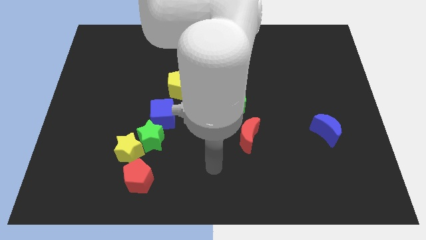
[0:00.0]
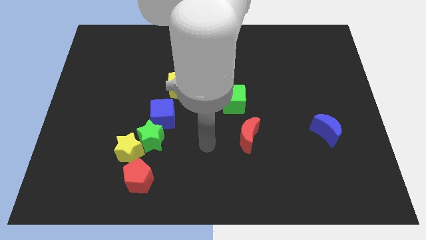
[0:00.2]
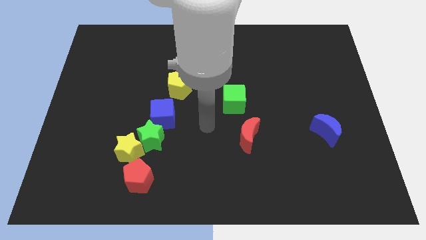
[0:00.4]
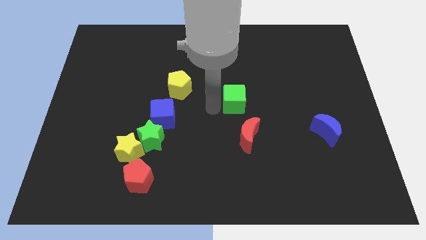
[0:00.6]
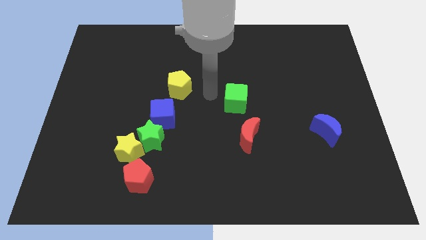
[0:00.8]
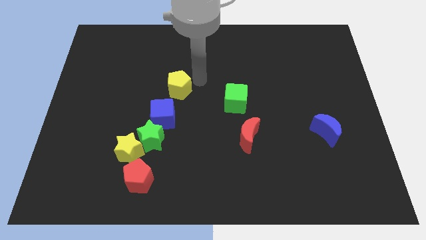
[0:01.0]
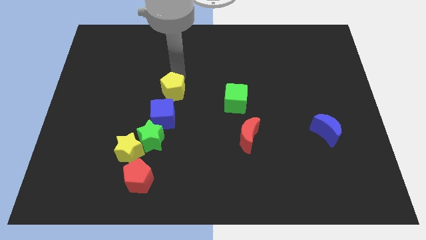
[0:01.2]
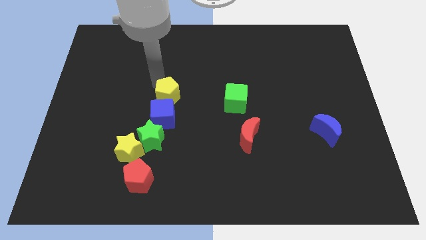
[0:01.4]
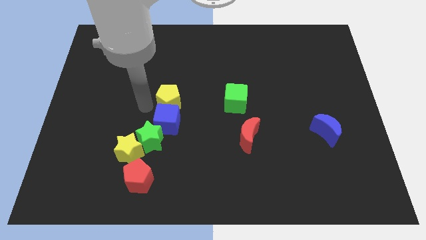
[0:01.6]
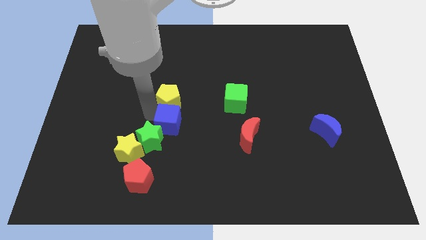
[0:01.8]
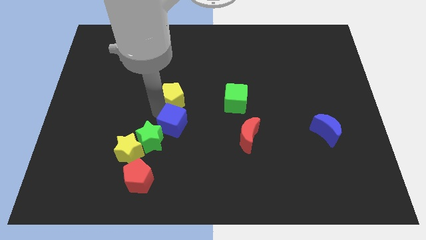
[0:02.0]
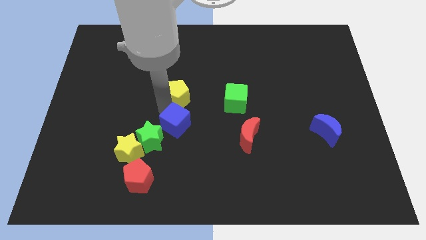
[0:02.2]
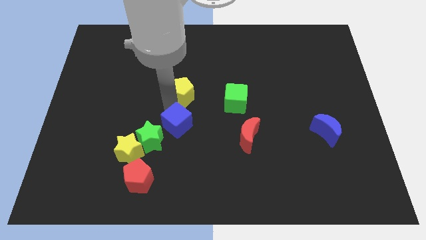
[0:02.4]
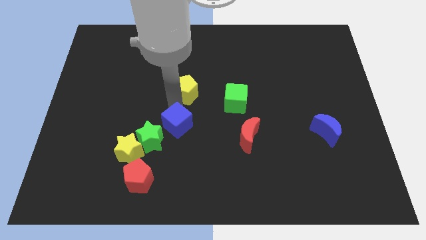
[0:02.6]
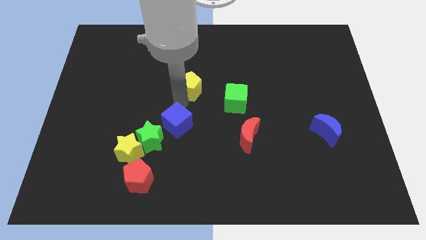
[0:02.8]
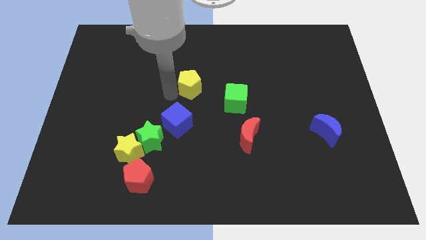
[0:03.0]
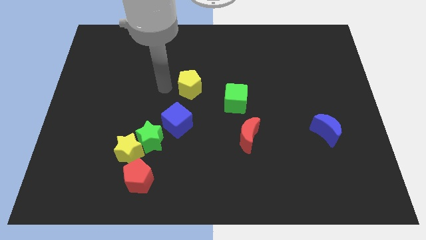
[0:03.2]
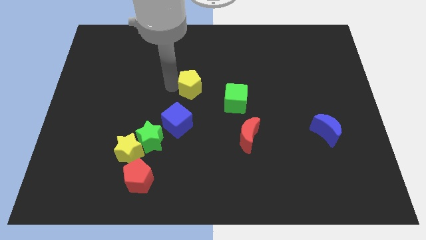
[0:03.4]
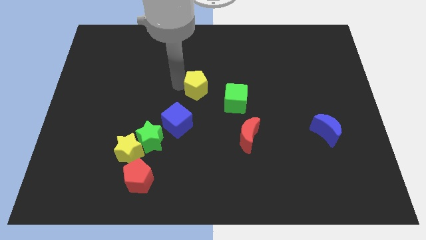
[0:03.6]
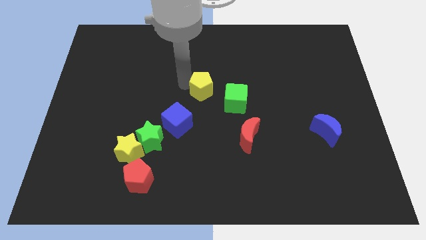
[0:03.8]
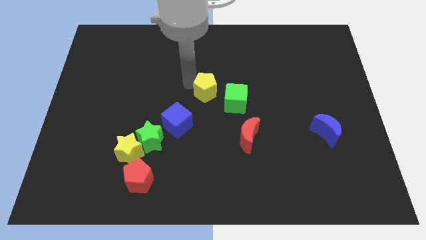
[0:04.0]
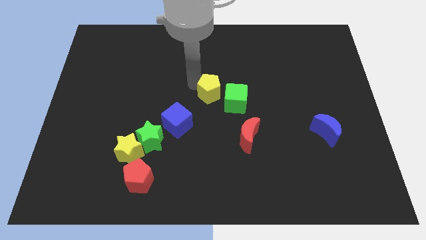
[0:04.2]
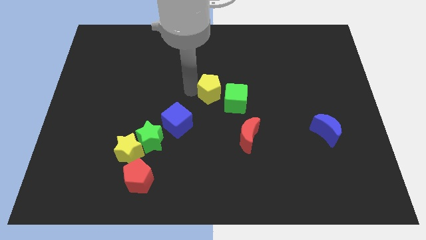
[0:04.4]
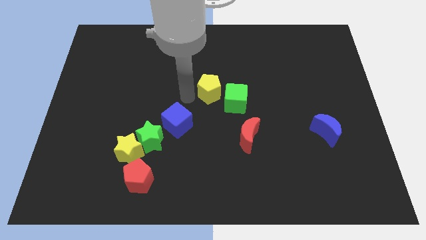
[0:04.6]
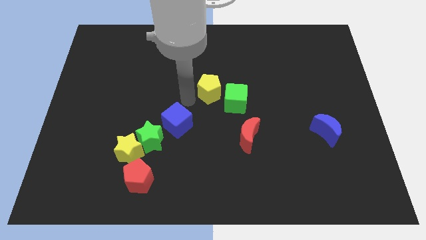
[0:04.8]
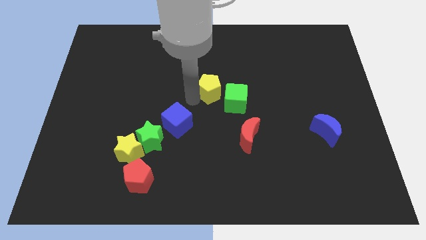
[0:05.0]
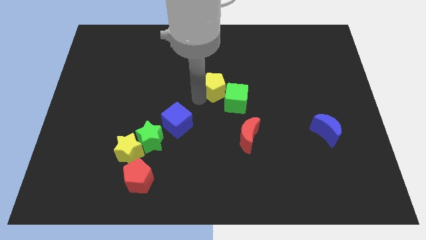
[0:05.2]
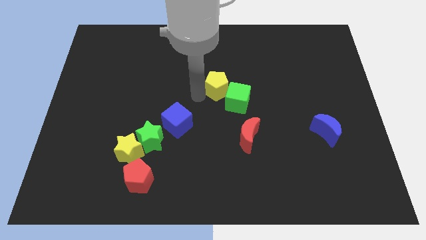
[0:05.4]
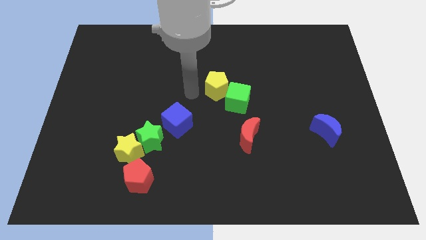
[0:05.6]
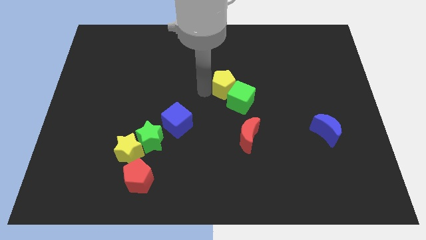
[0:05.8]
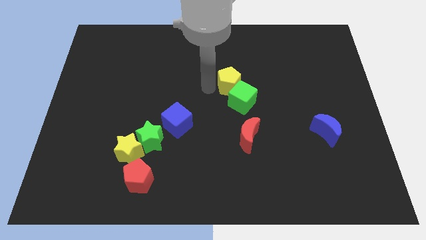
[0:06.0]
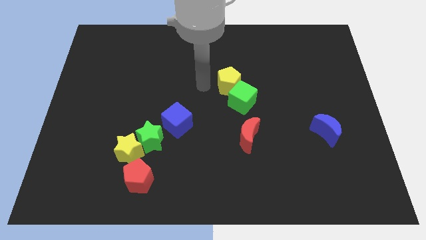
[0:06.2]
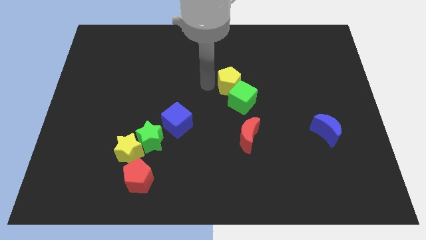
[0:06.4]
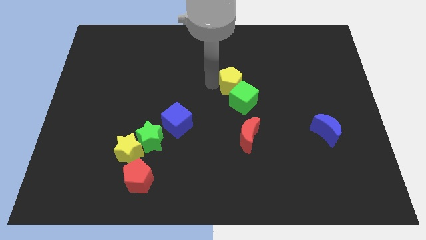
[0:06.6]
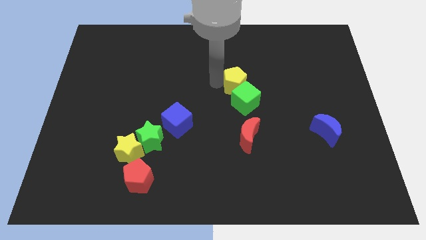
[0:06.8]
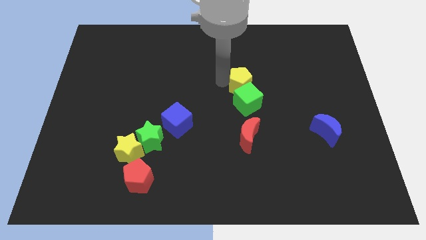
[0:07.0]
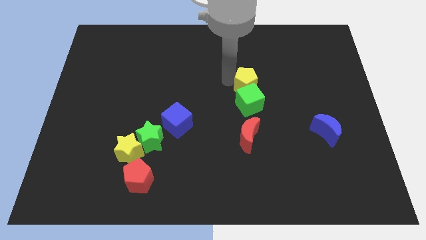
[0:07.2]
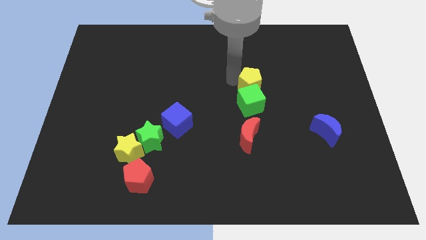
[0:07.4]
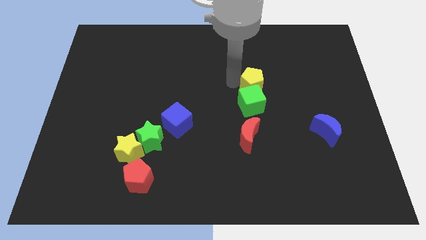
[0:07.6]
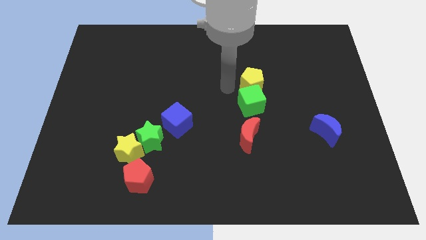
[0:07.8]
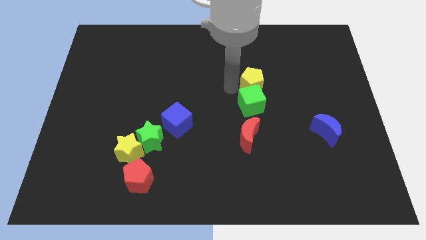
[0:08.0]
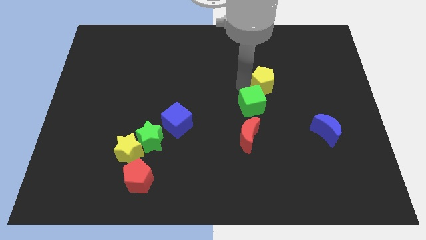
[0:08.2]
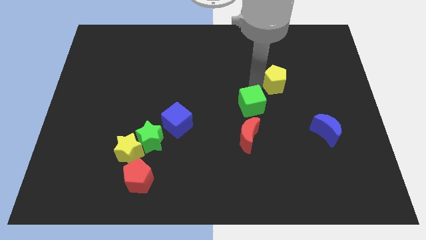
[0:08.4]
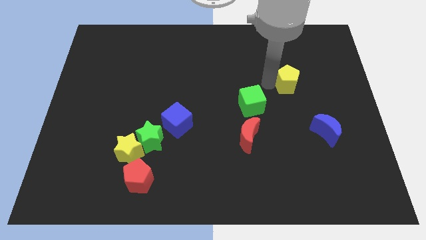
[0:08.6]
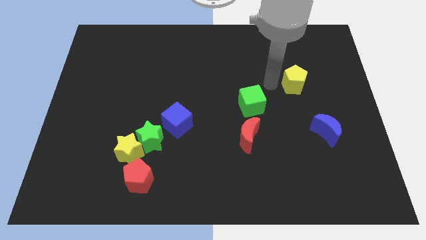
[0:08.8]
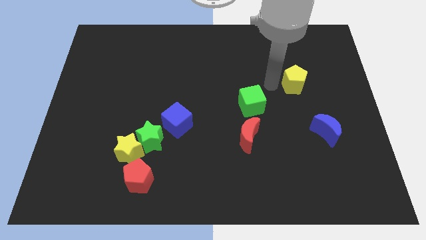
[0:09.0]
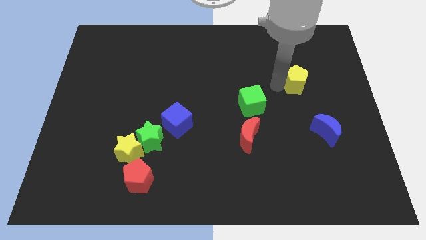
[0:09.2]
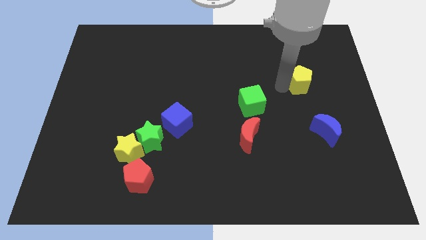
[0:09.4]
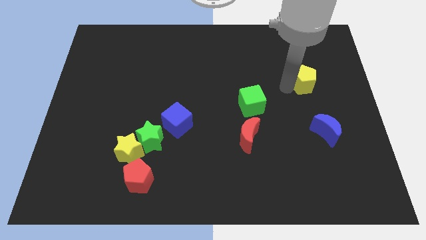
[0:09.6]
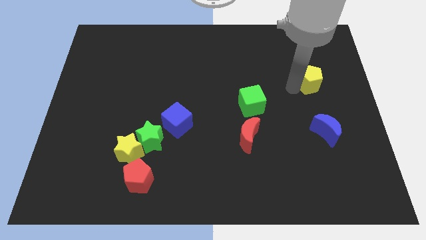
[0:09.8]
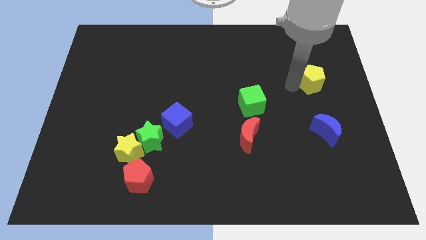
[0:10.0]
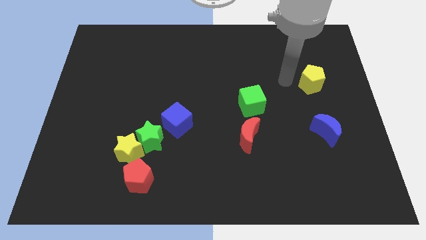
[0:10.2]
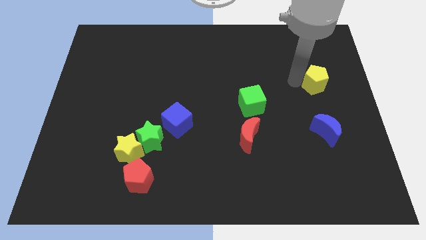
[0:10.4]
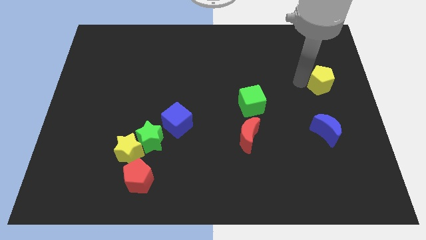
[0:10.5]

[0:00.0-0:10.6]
slide the yellow pentagon to the right side of the board

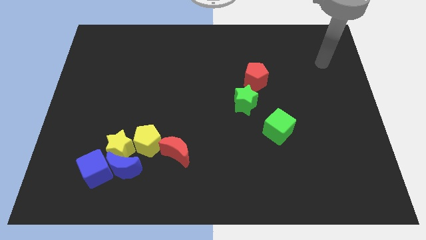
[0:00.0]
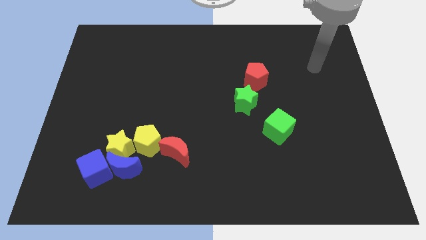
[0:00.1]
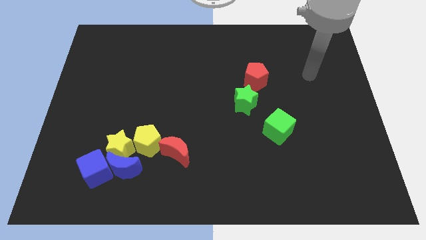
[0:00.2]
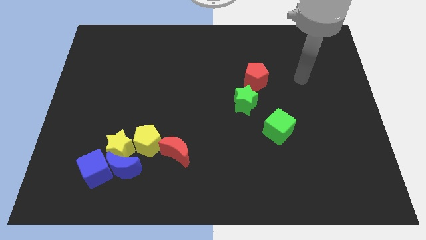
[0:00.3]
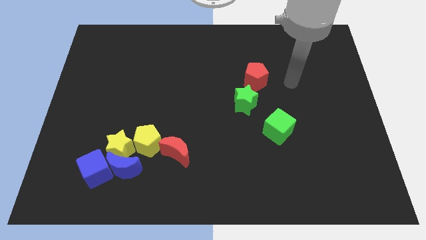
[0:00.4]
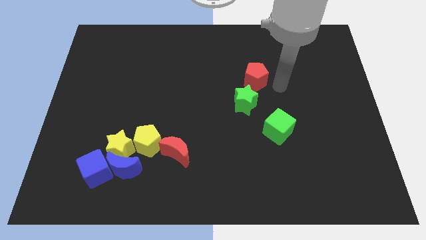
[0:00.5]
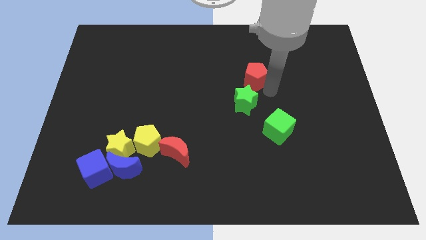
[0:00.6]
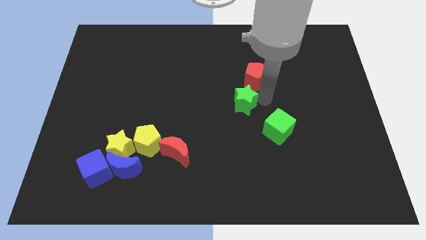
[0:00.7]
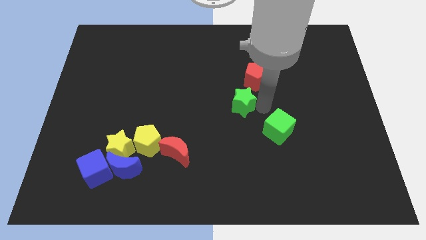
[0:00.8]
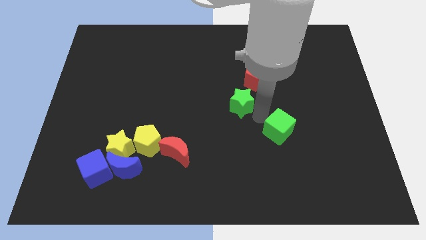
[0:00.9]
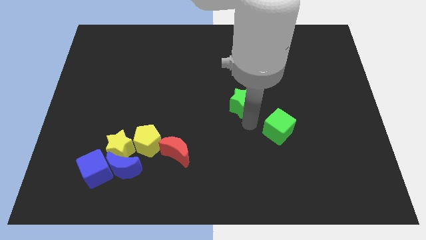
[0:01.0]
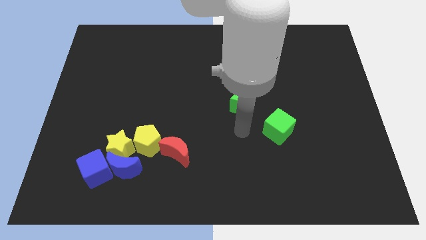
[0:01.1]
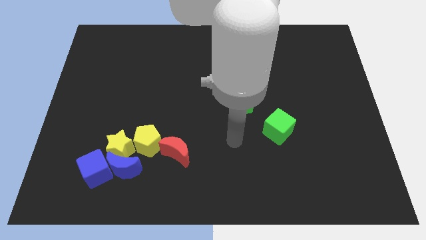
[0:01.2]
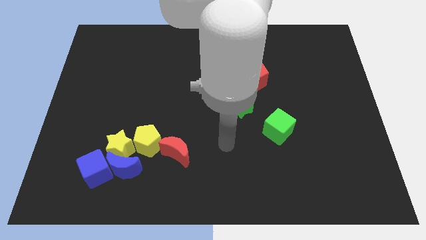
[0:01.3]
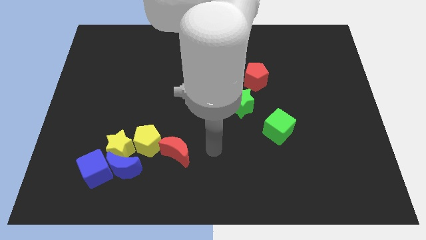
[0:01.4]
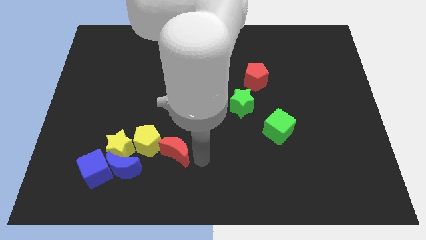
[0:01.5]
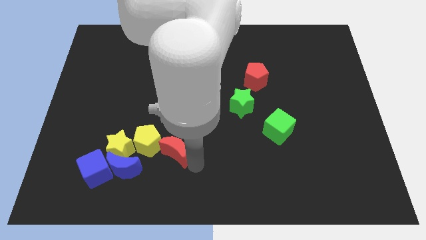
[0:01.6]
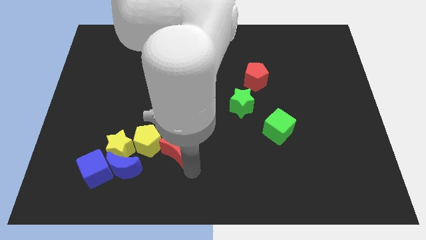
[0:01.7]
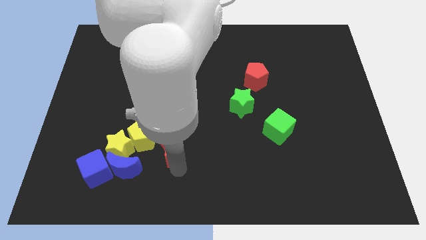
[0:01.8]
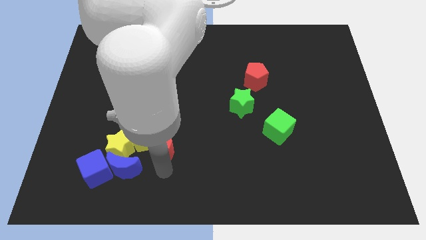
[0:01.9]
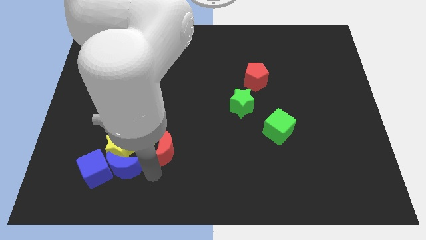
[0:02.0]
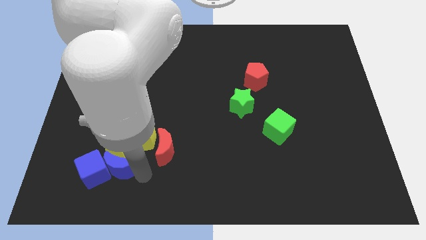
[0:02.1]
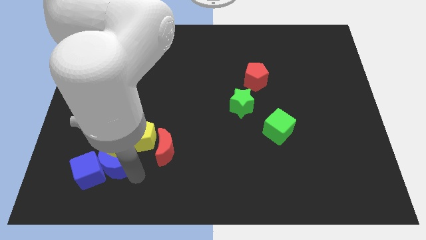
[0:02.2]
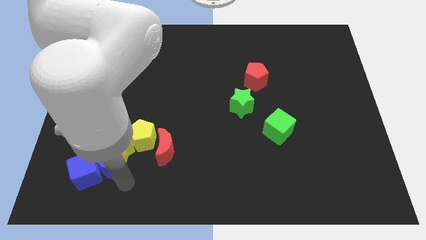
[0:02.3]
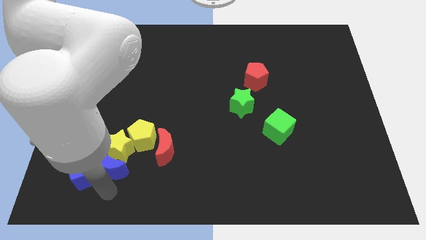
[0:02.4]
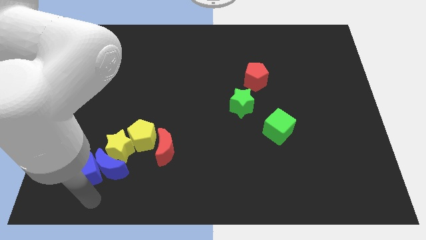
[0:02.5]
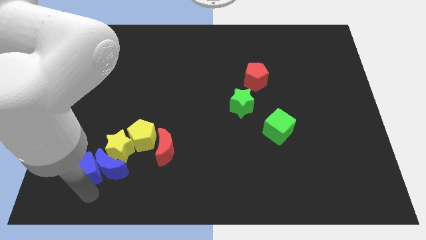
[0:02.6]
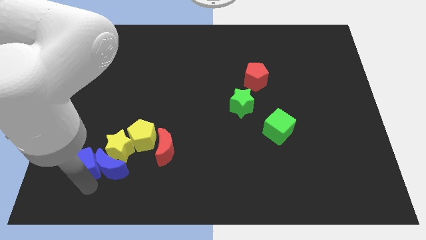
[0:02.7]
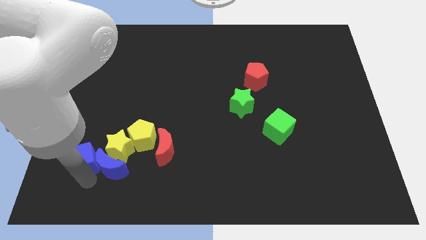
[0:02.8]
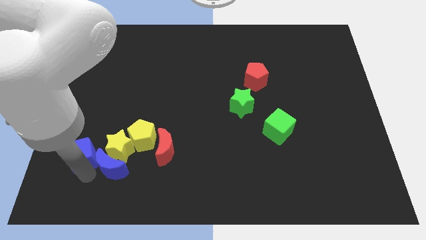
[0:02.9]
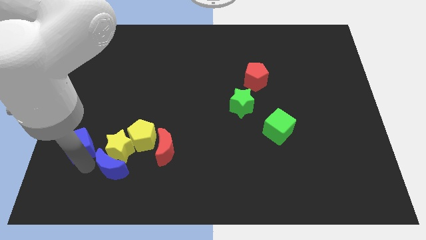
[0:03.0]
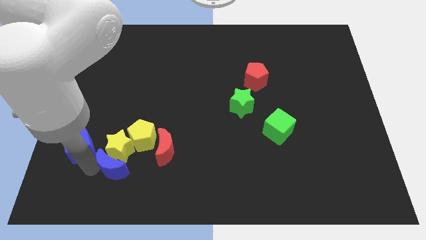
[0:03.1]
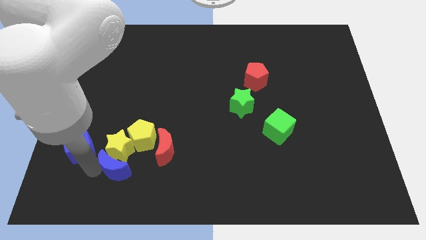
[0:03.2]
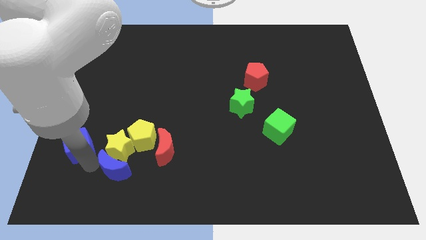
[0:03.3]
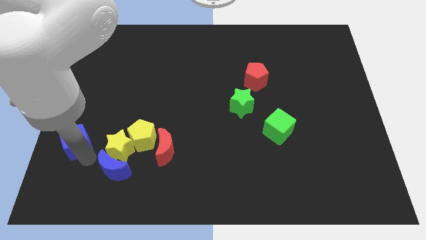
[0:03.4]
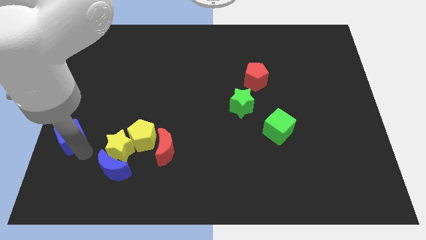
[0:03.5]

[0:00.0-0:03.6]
move the blue cube to the left side of the board
